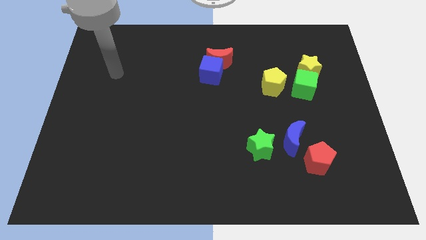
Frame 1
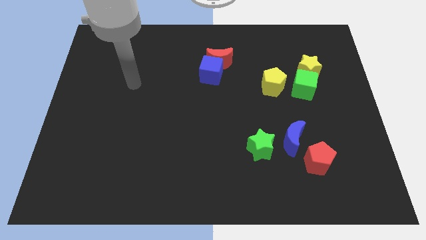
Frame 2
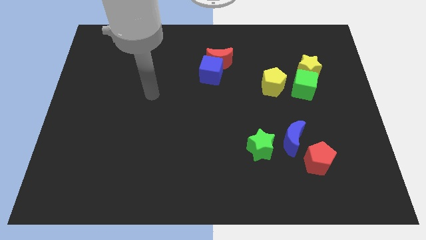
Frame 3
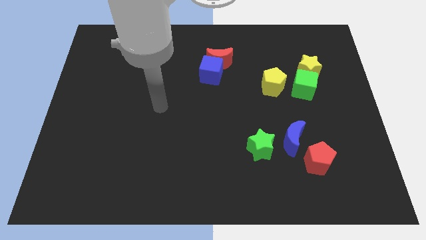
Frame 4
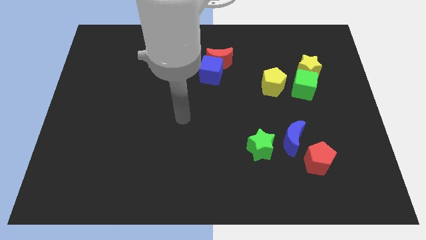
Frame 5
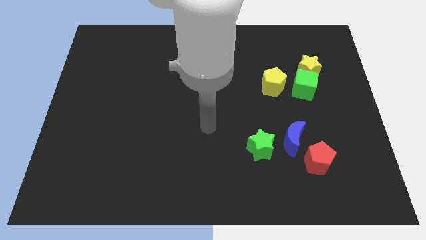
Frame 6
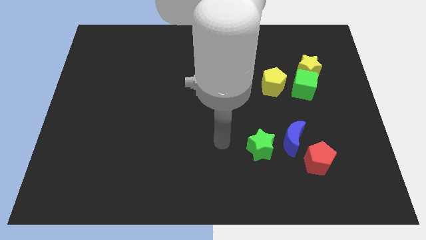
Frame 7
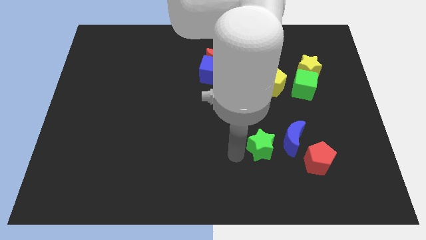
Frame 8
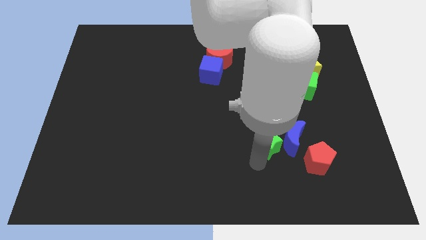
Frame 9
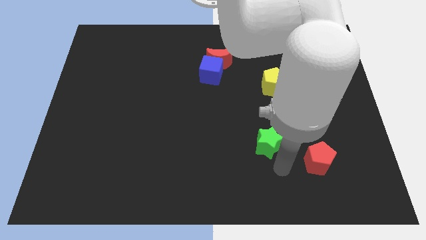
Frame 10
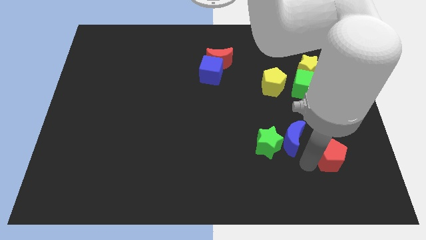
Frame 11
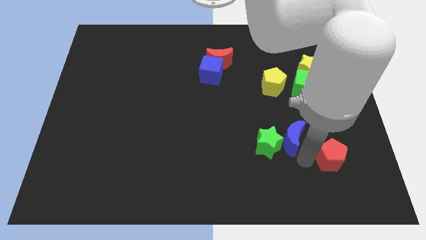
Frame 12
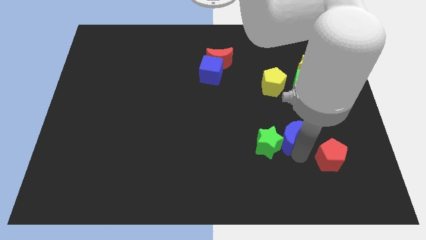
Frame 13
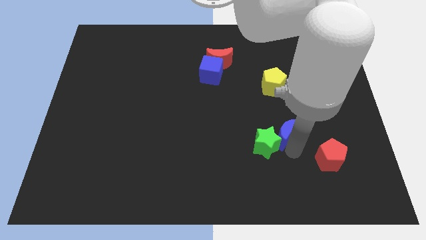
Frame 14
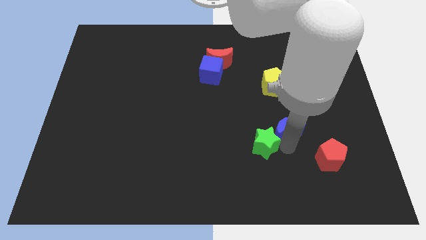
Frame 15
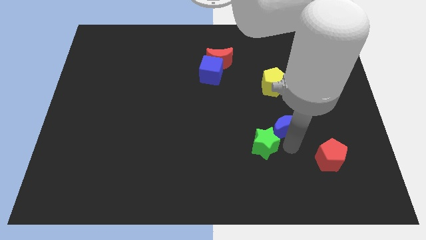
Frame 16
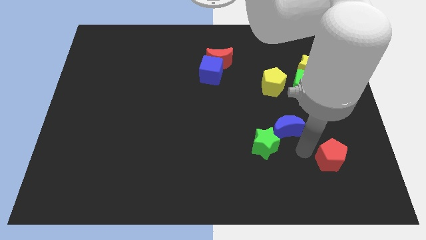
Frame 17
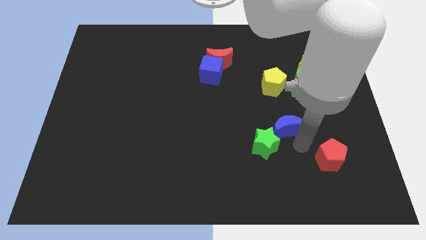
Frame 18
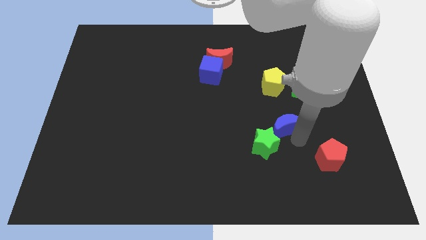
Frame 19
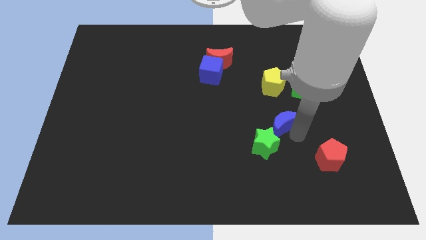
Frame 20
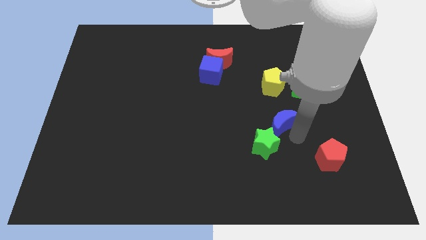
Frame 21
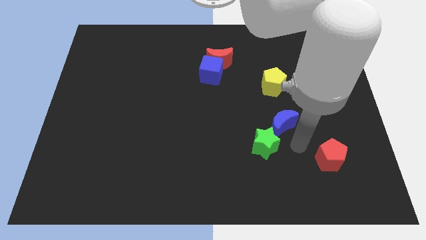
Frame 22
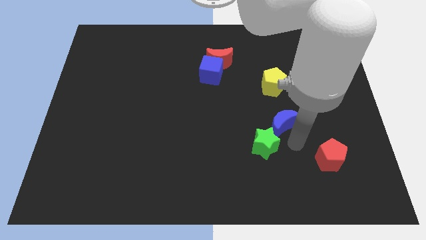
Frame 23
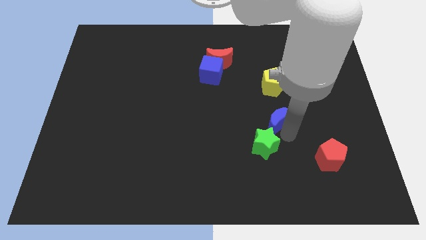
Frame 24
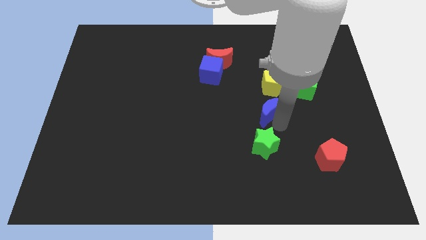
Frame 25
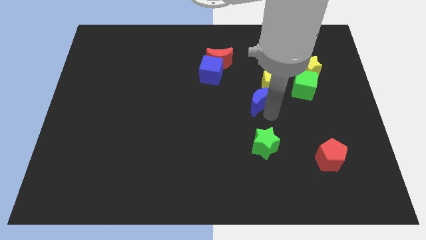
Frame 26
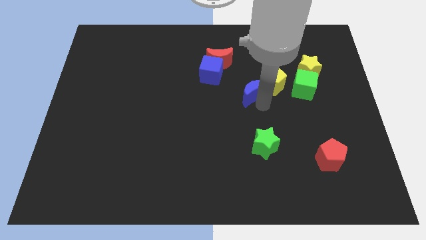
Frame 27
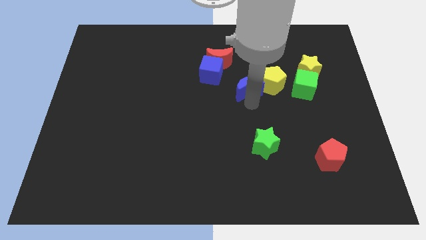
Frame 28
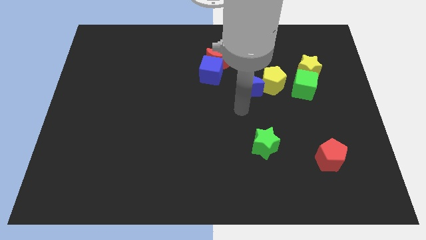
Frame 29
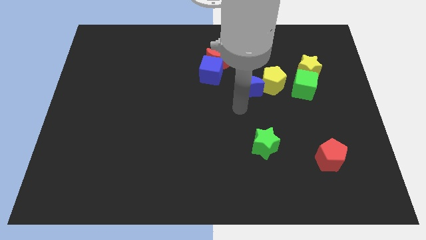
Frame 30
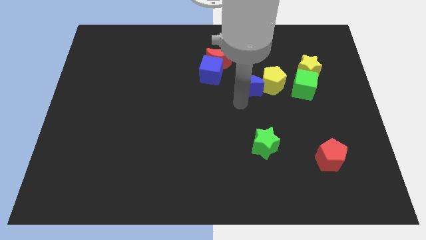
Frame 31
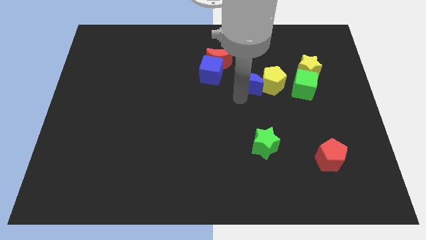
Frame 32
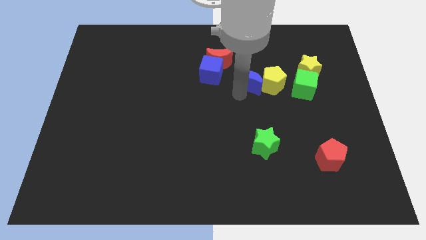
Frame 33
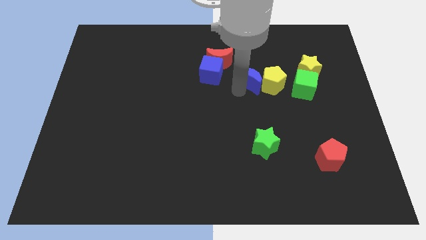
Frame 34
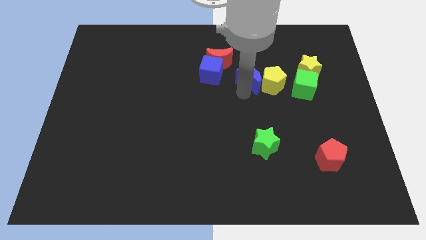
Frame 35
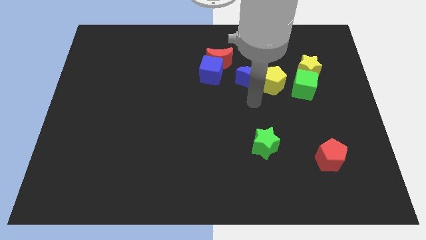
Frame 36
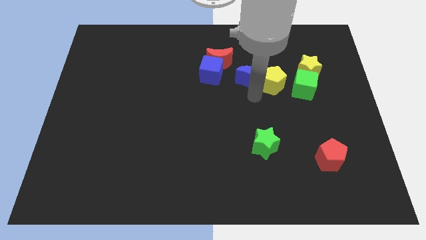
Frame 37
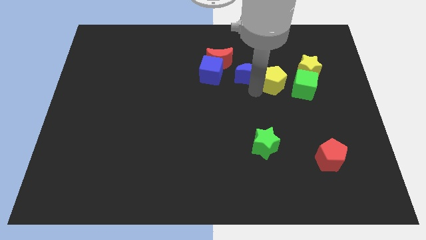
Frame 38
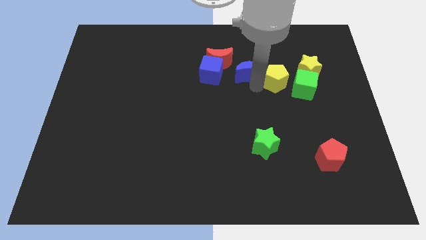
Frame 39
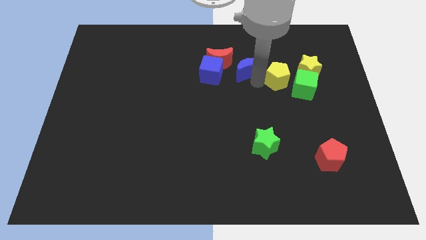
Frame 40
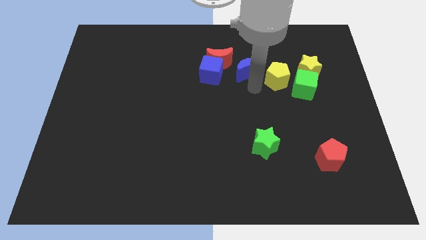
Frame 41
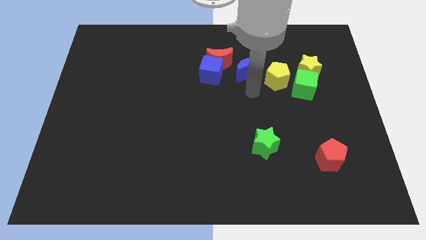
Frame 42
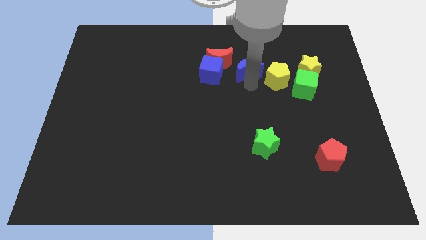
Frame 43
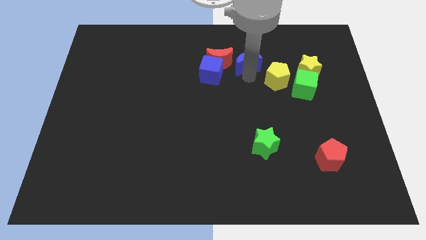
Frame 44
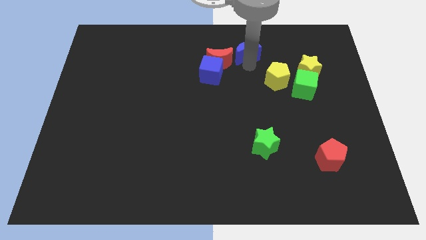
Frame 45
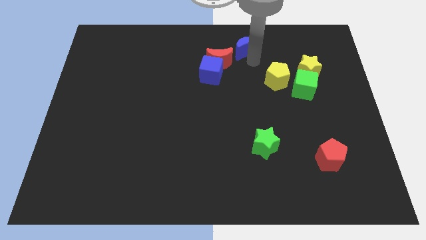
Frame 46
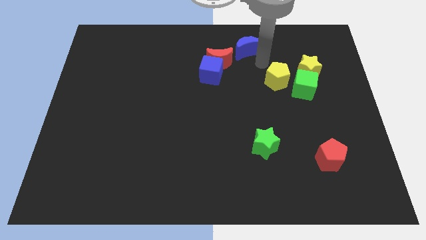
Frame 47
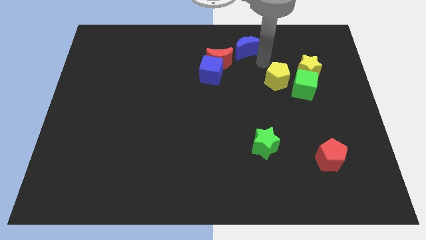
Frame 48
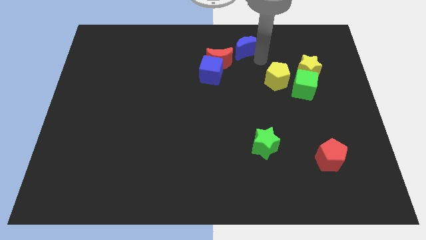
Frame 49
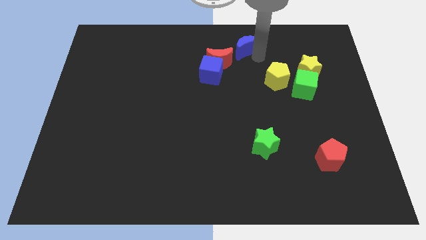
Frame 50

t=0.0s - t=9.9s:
put the blue moon to the top

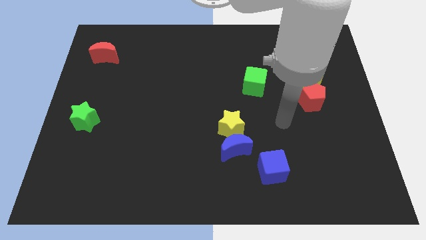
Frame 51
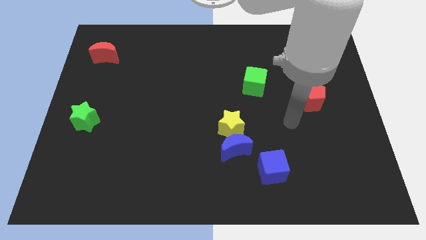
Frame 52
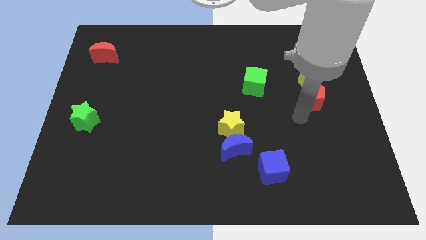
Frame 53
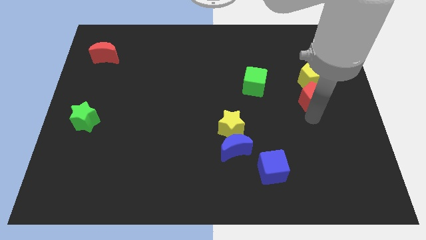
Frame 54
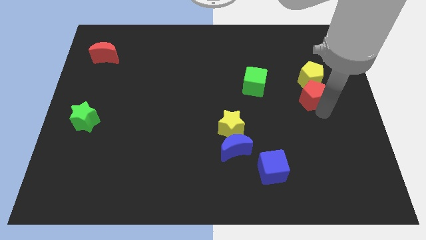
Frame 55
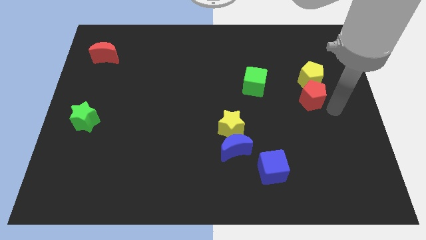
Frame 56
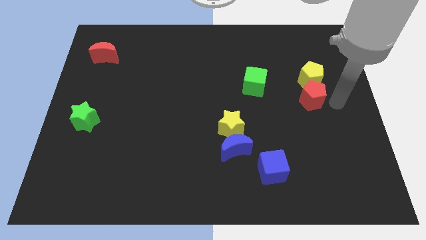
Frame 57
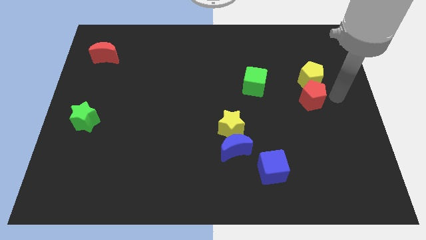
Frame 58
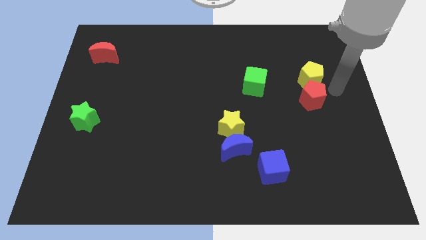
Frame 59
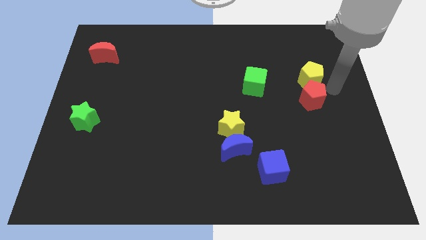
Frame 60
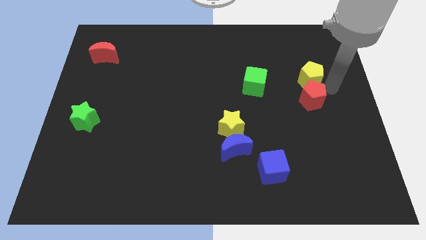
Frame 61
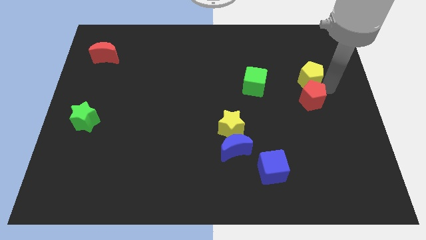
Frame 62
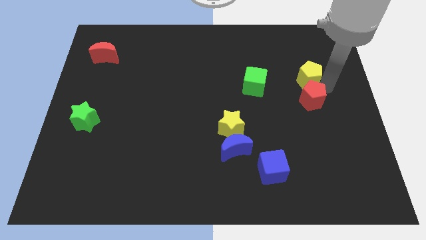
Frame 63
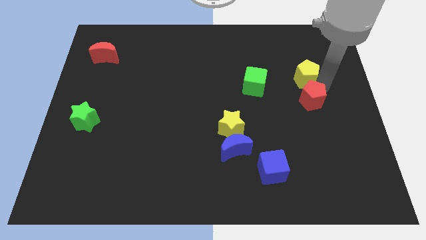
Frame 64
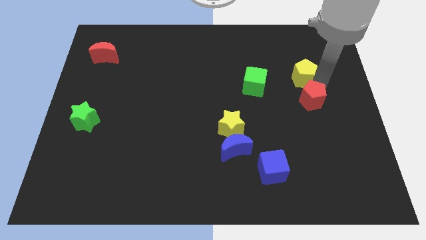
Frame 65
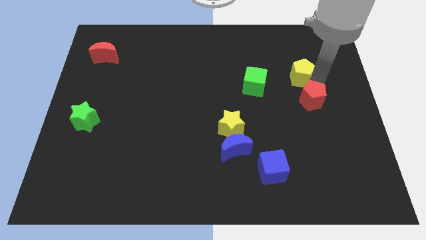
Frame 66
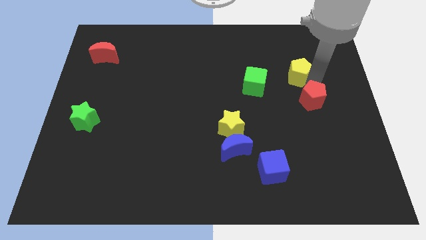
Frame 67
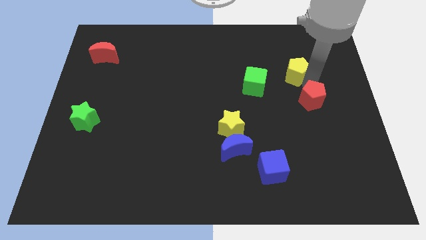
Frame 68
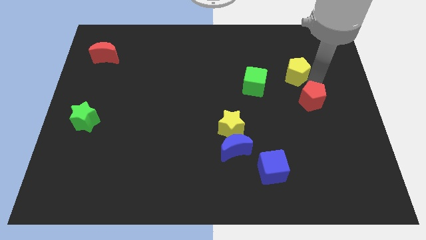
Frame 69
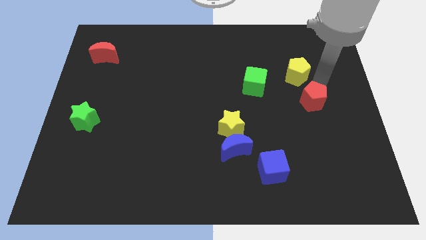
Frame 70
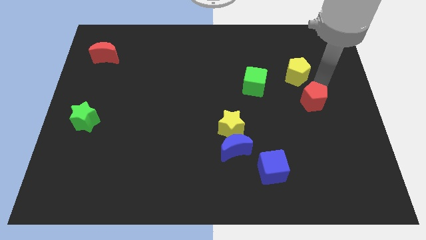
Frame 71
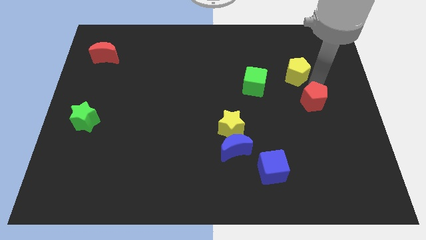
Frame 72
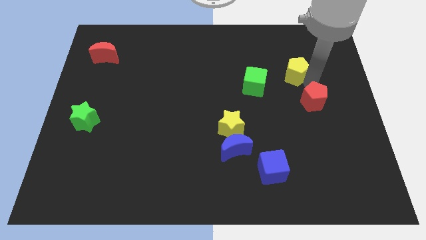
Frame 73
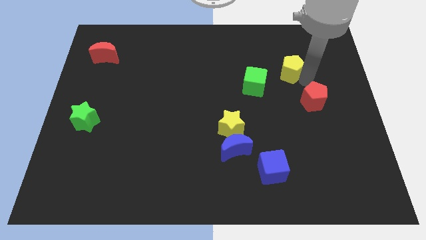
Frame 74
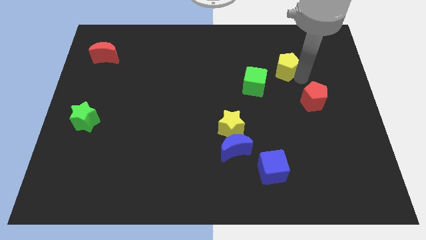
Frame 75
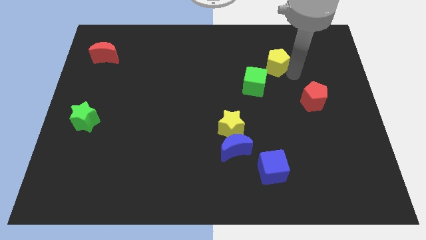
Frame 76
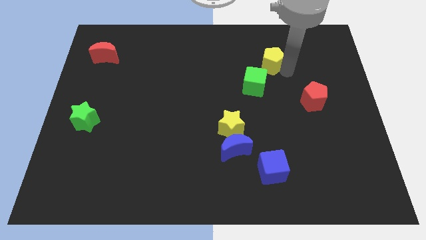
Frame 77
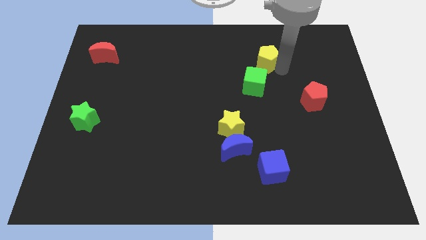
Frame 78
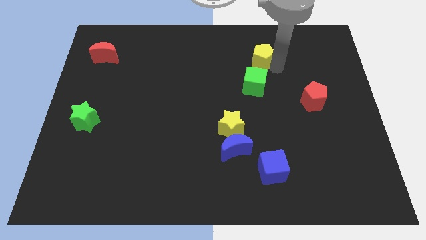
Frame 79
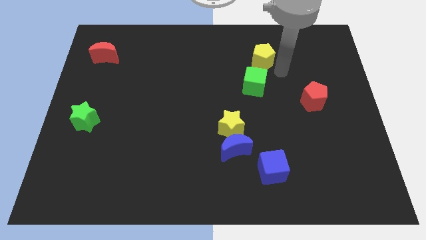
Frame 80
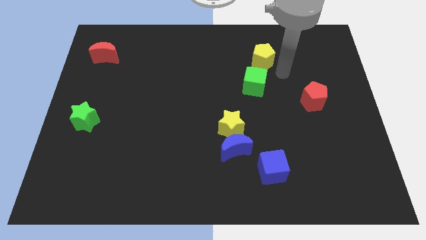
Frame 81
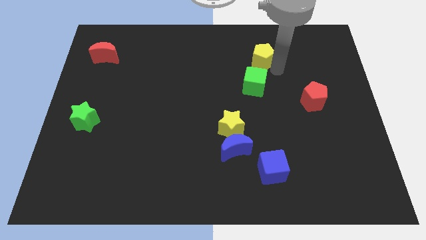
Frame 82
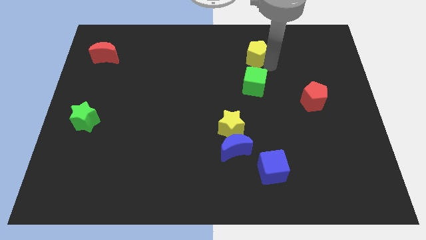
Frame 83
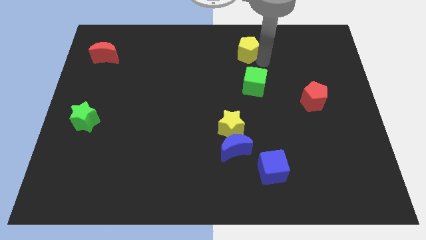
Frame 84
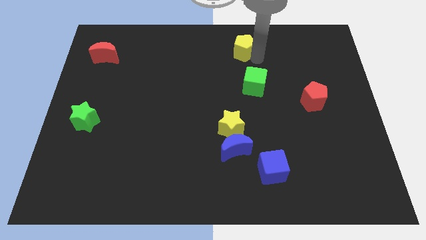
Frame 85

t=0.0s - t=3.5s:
slide the yellow pentagon to the towards your base
